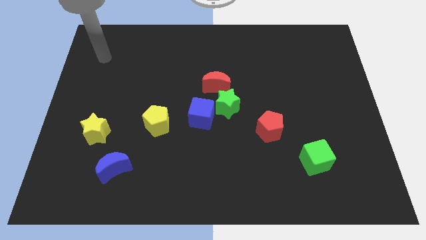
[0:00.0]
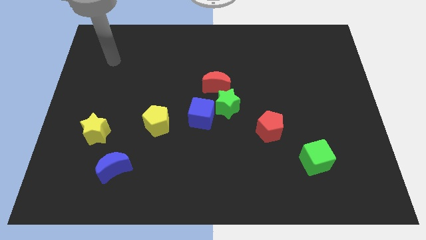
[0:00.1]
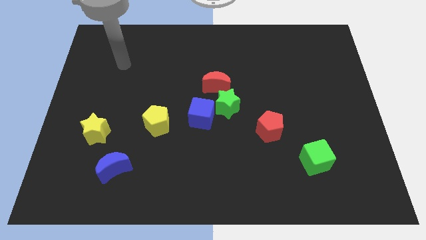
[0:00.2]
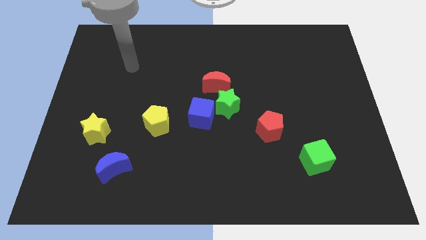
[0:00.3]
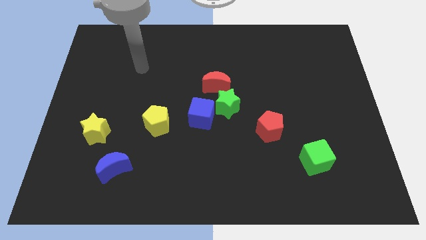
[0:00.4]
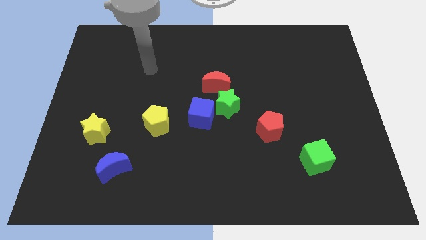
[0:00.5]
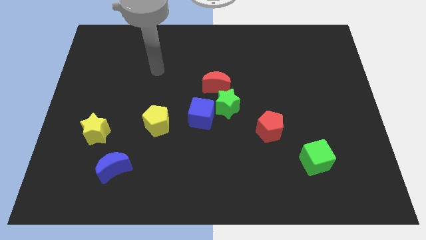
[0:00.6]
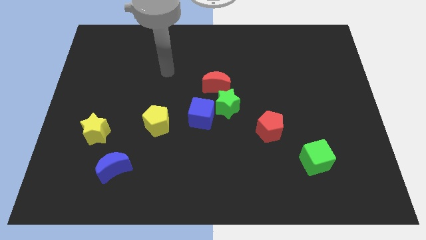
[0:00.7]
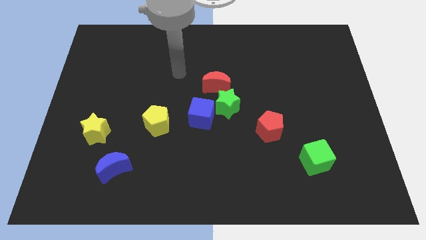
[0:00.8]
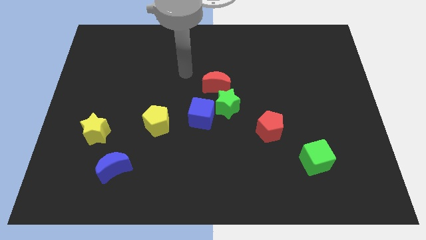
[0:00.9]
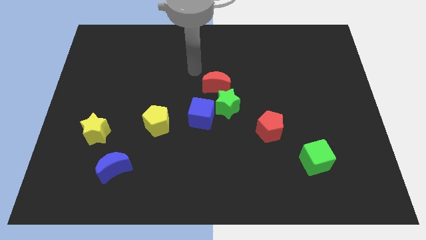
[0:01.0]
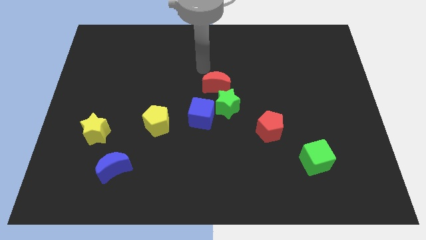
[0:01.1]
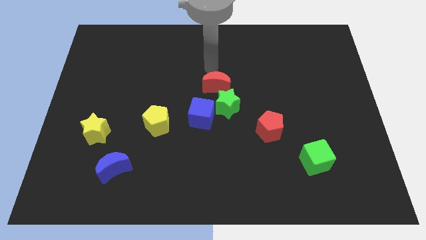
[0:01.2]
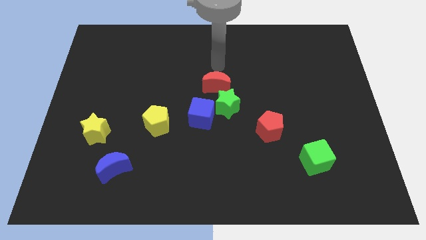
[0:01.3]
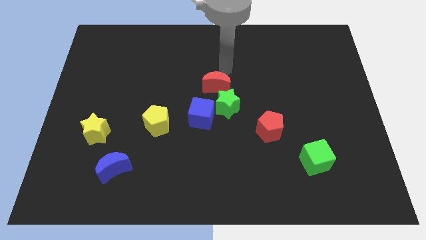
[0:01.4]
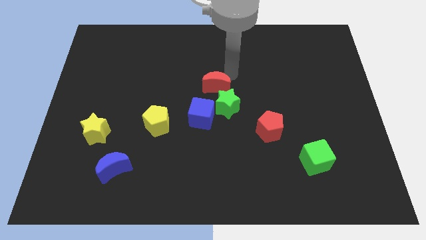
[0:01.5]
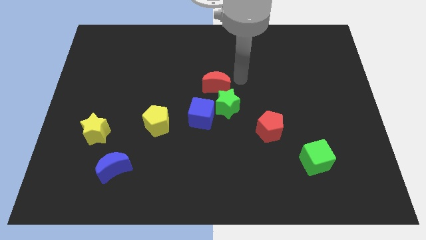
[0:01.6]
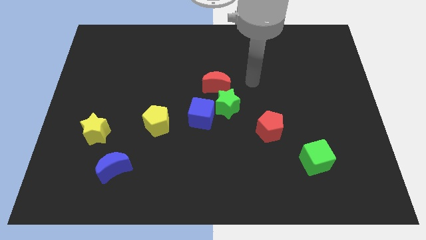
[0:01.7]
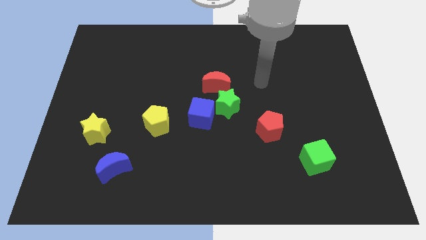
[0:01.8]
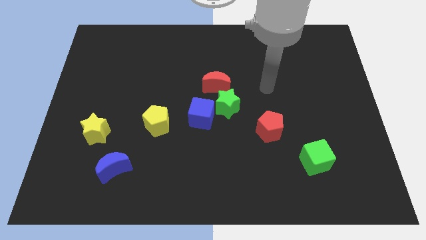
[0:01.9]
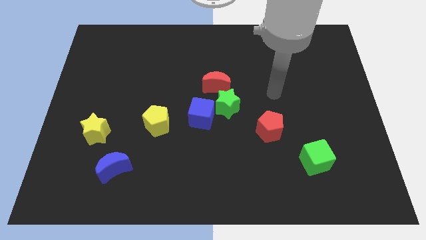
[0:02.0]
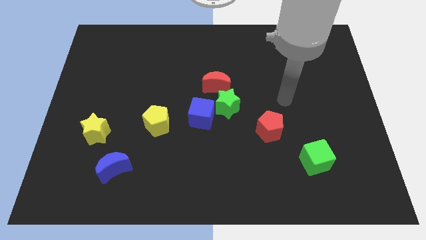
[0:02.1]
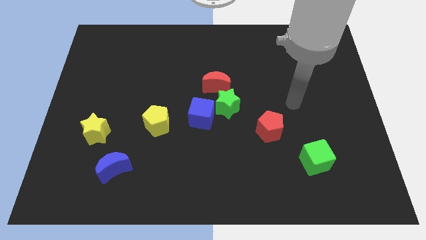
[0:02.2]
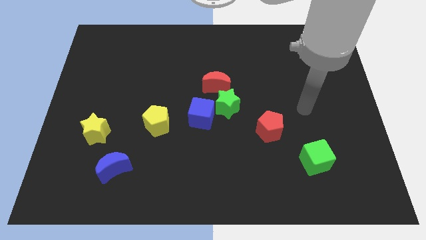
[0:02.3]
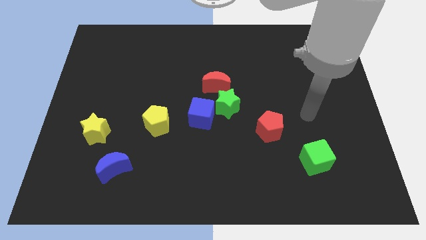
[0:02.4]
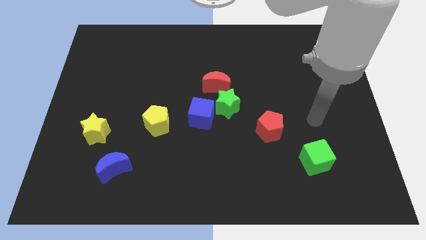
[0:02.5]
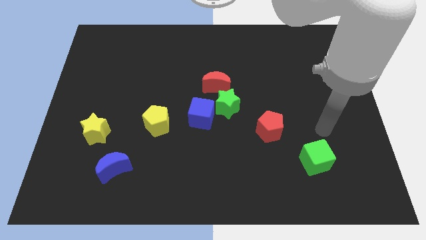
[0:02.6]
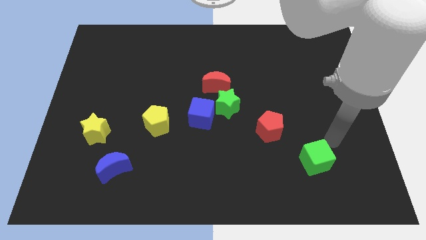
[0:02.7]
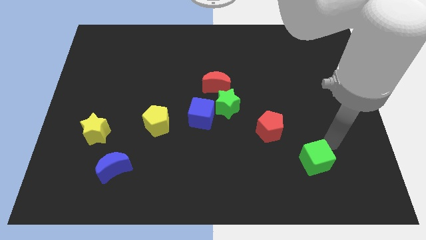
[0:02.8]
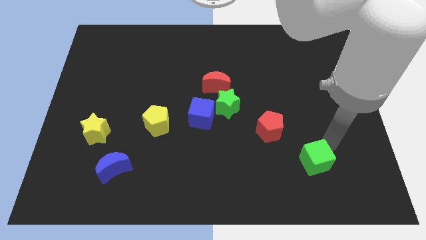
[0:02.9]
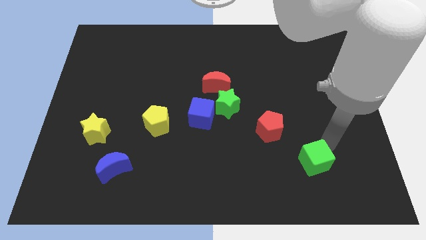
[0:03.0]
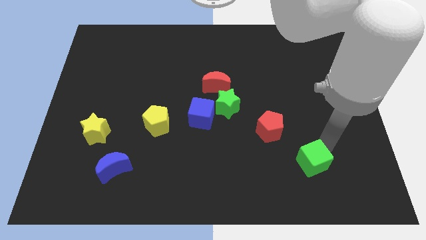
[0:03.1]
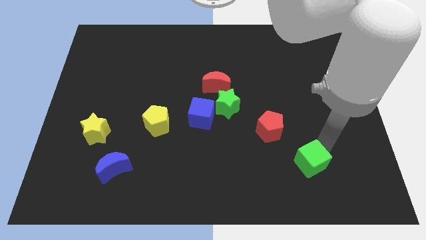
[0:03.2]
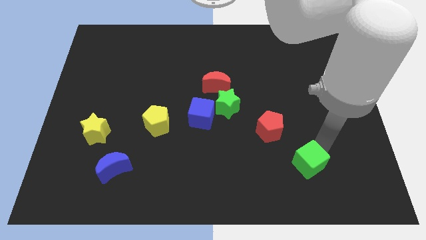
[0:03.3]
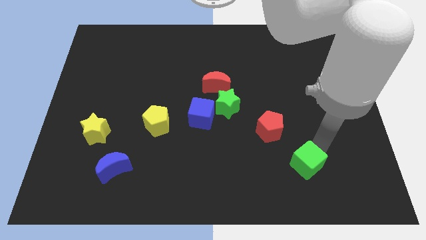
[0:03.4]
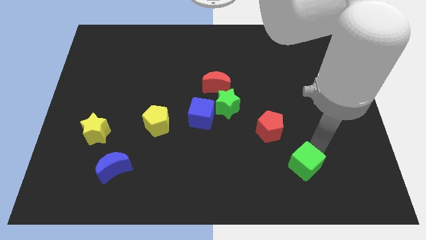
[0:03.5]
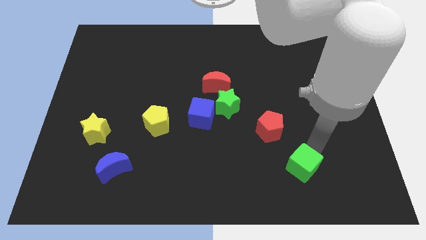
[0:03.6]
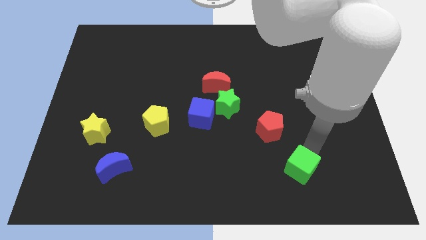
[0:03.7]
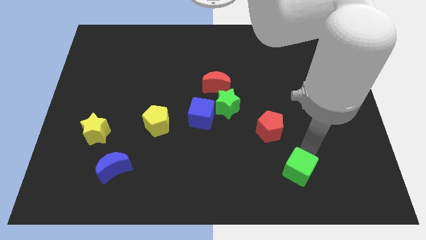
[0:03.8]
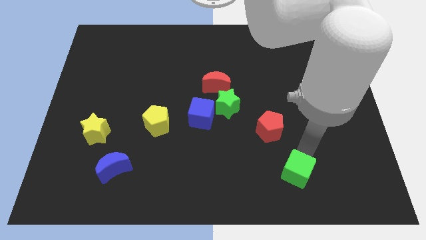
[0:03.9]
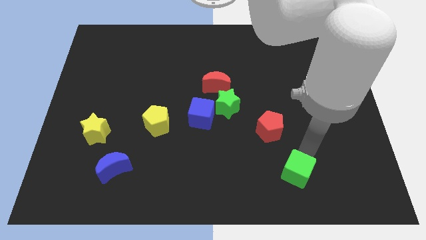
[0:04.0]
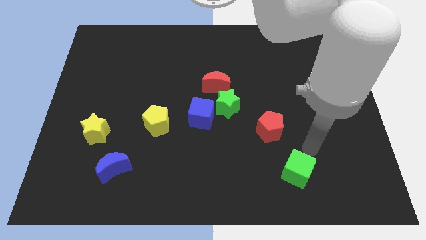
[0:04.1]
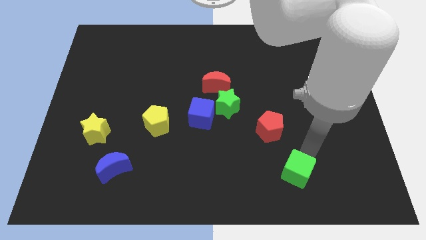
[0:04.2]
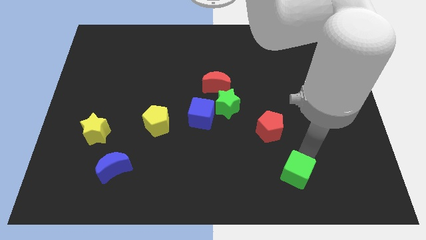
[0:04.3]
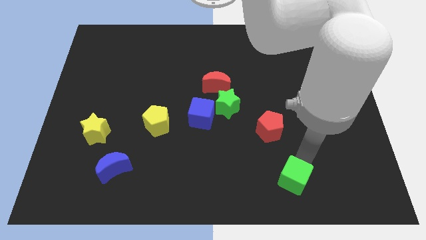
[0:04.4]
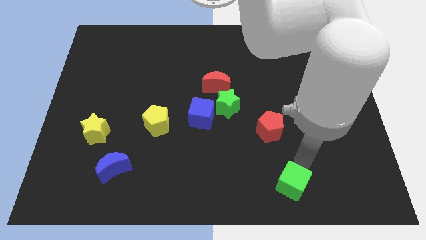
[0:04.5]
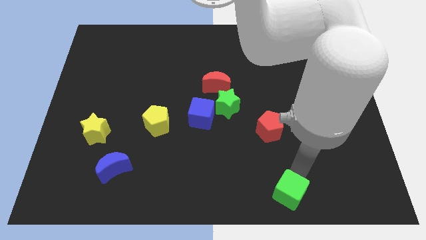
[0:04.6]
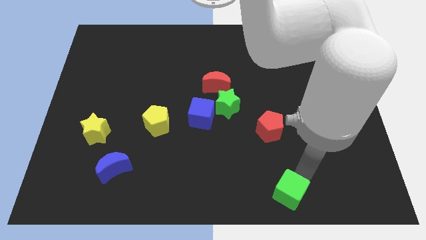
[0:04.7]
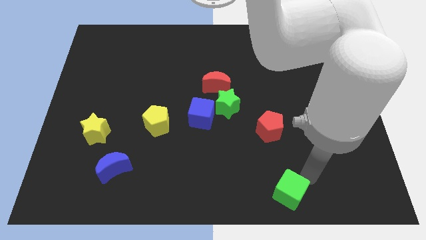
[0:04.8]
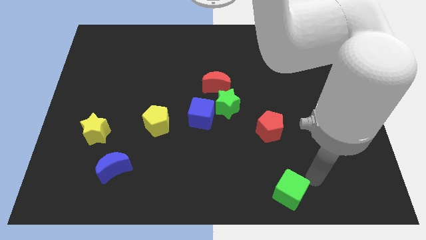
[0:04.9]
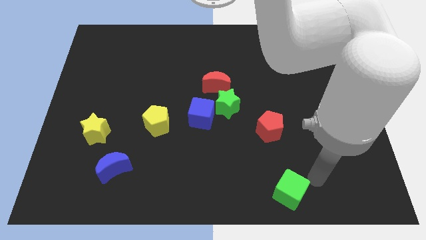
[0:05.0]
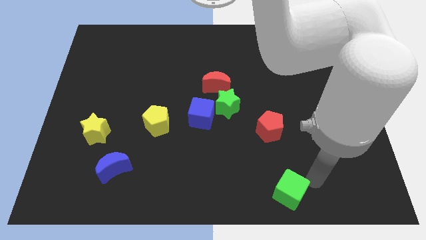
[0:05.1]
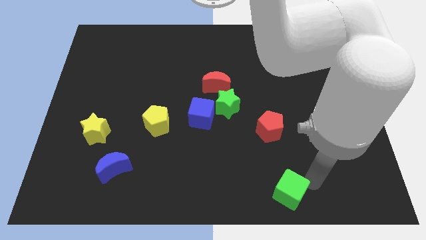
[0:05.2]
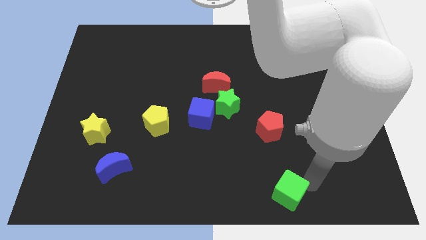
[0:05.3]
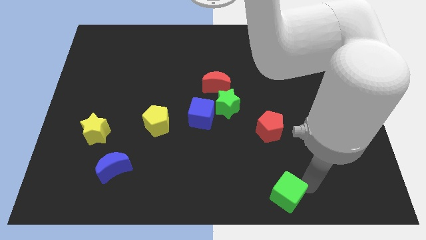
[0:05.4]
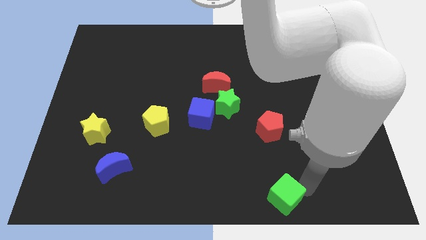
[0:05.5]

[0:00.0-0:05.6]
move the green cube to the bottom

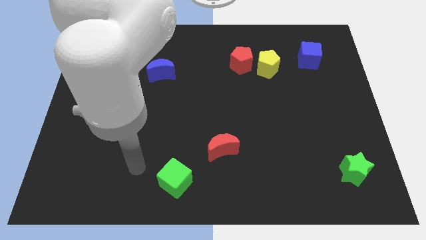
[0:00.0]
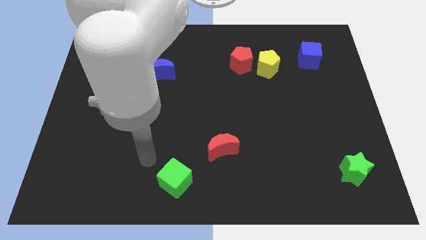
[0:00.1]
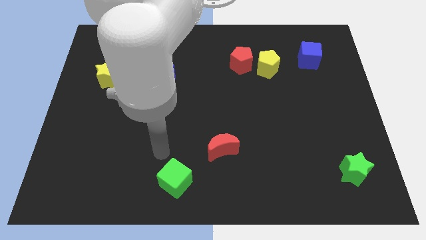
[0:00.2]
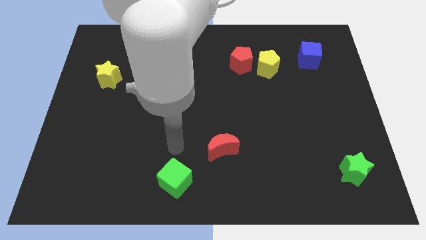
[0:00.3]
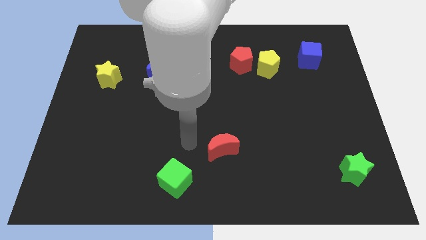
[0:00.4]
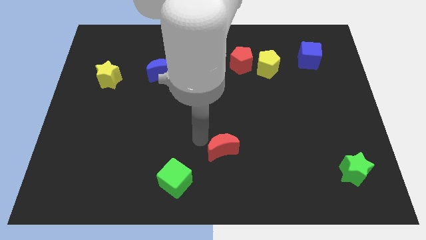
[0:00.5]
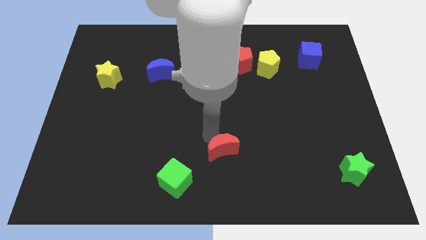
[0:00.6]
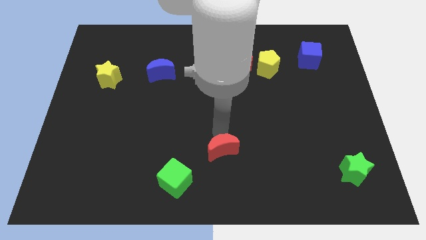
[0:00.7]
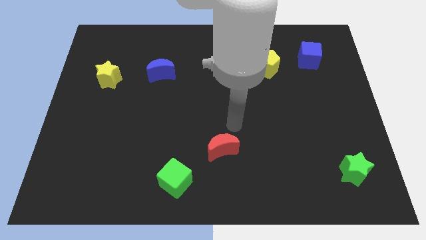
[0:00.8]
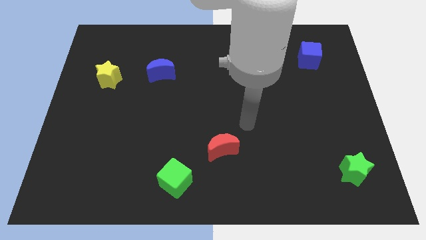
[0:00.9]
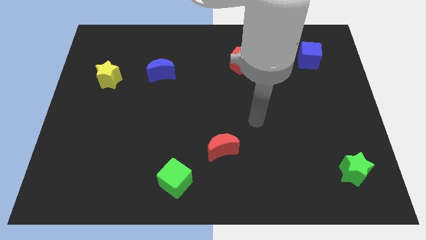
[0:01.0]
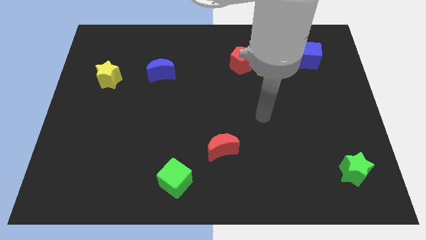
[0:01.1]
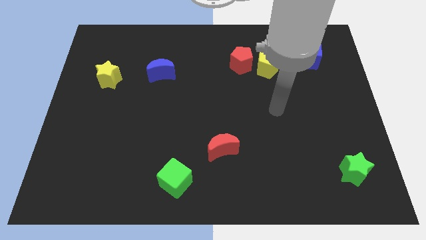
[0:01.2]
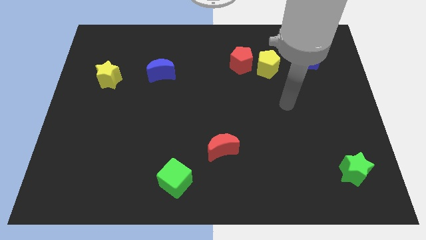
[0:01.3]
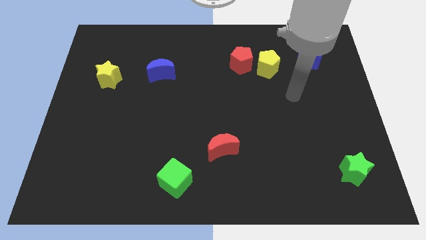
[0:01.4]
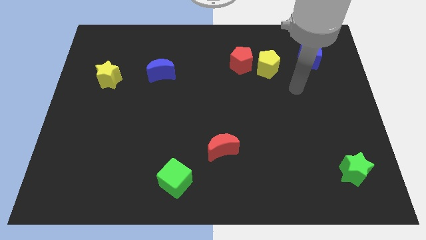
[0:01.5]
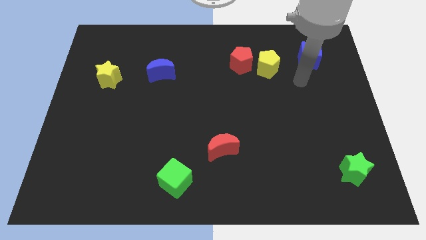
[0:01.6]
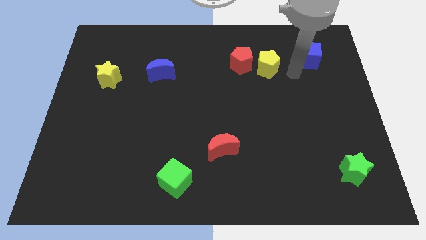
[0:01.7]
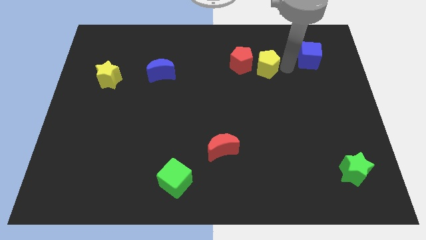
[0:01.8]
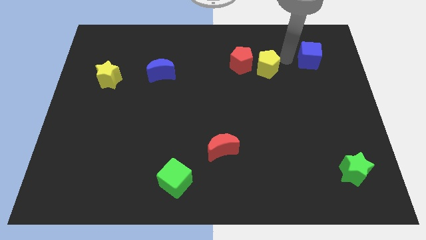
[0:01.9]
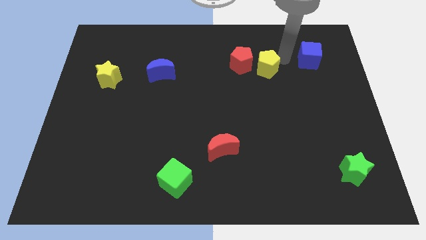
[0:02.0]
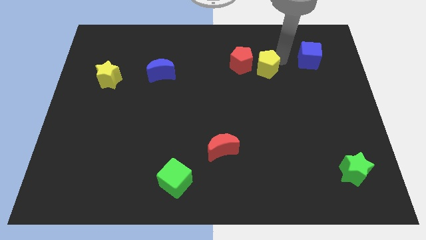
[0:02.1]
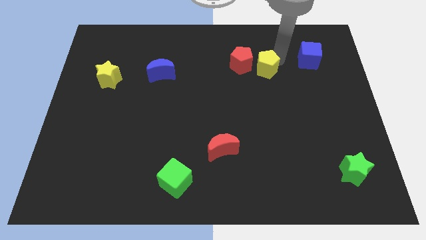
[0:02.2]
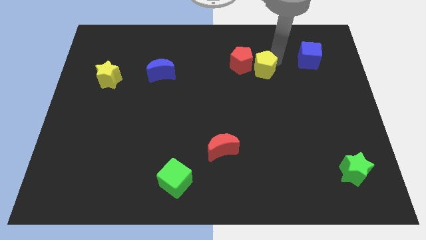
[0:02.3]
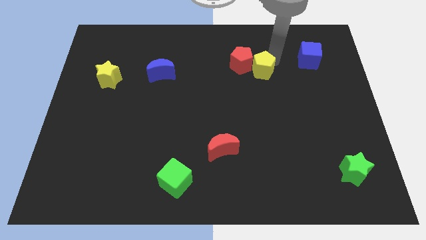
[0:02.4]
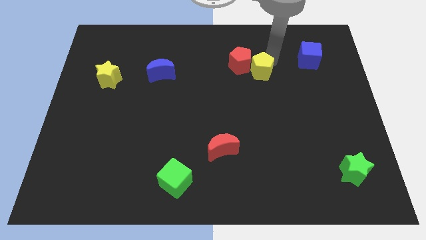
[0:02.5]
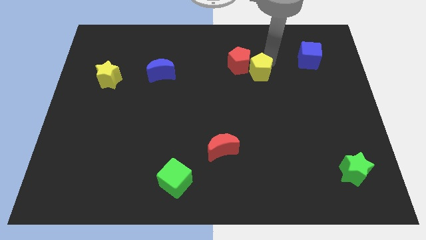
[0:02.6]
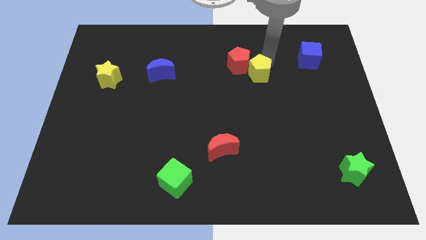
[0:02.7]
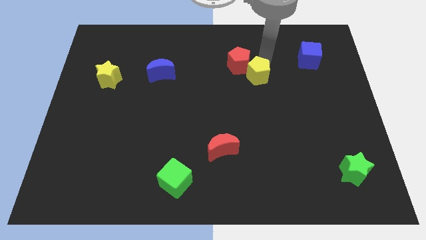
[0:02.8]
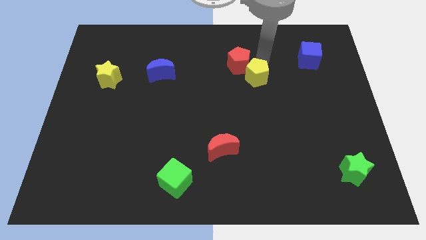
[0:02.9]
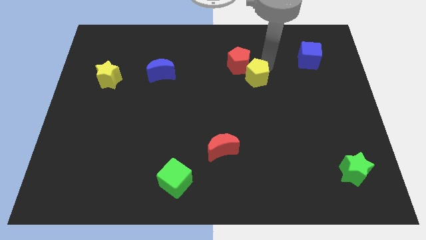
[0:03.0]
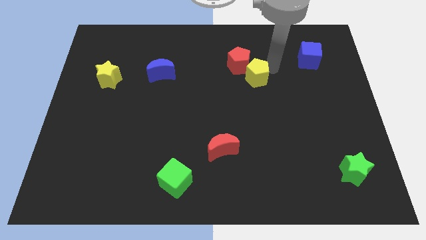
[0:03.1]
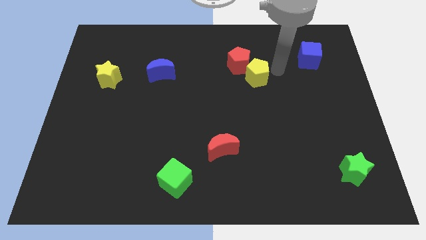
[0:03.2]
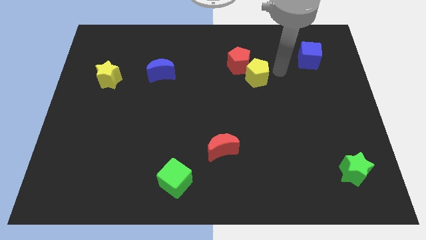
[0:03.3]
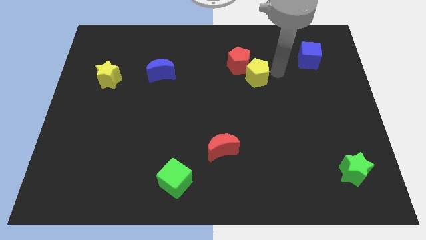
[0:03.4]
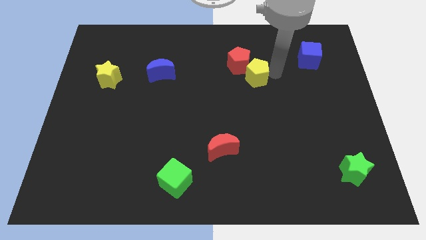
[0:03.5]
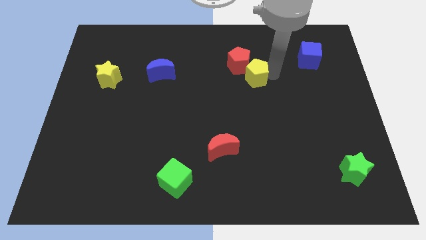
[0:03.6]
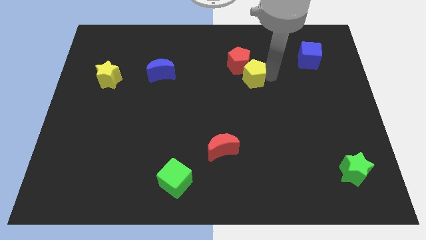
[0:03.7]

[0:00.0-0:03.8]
put the yellow pentagon to the center
